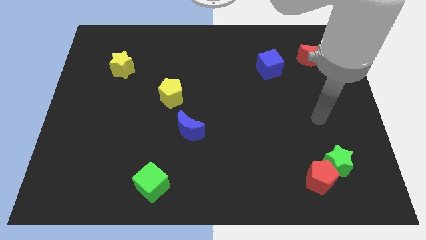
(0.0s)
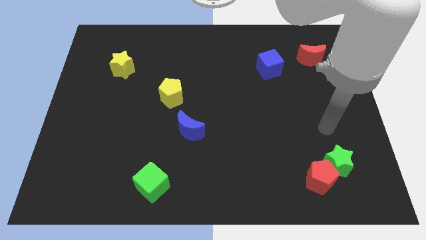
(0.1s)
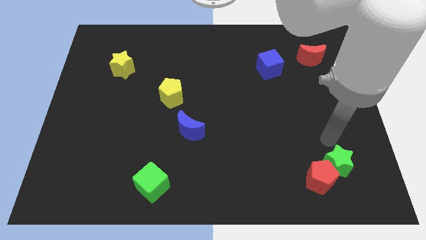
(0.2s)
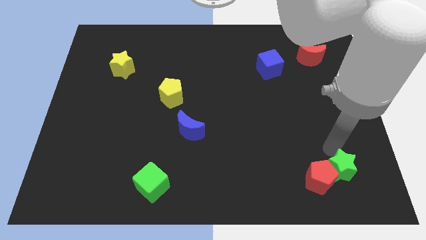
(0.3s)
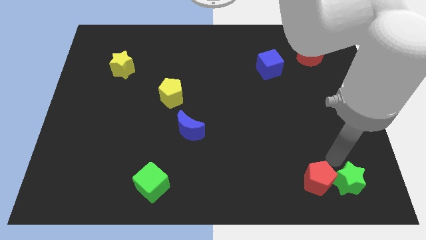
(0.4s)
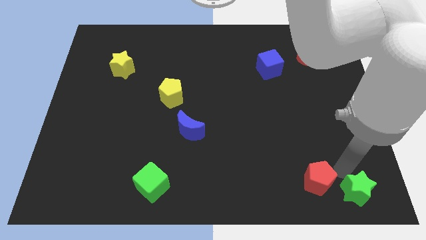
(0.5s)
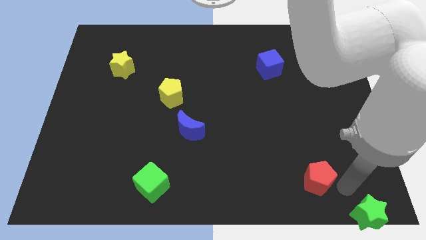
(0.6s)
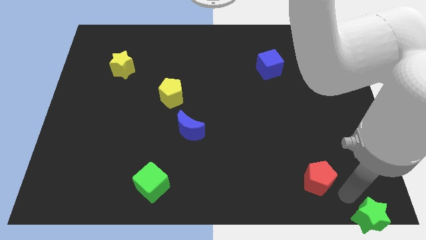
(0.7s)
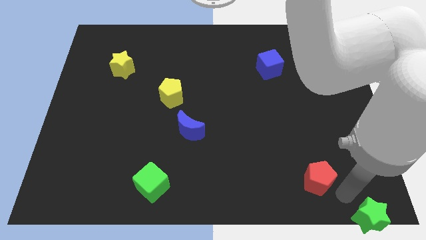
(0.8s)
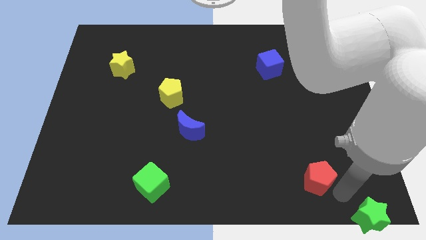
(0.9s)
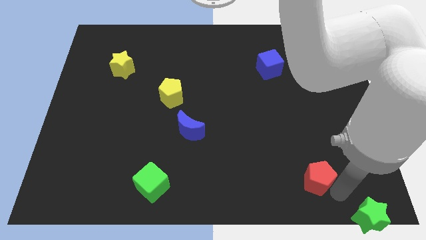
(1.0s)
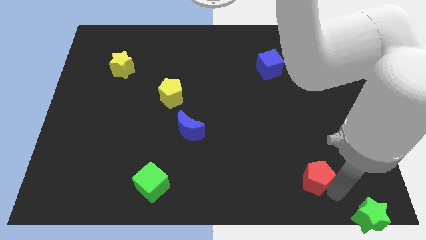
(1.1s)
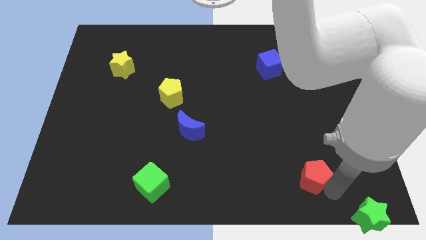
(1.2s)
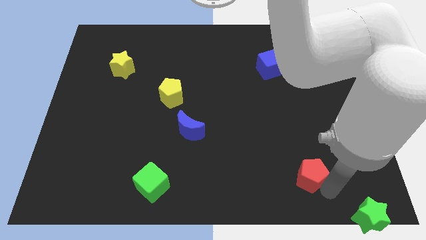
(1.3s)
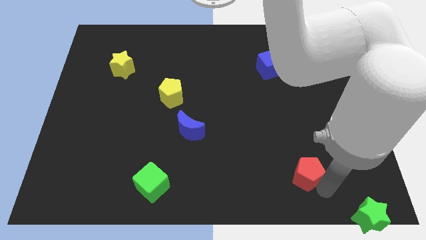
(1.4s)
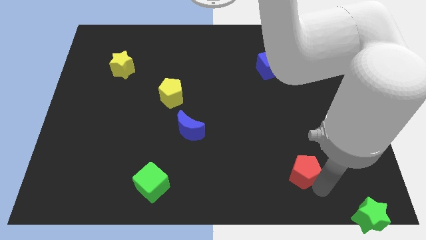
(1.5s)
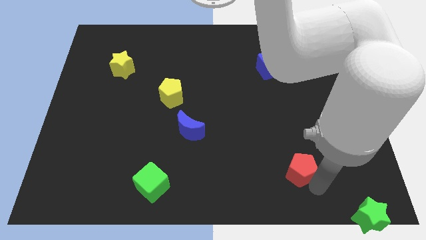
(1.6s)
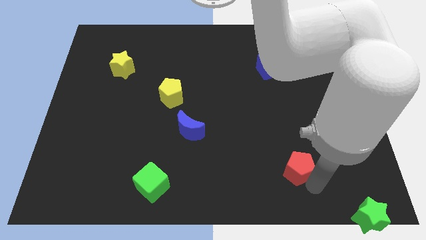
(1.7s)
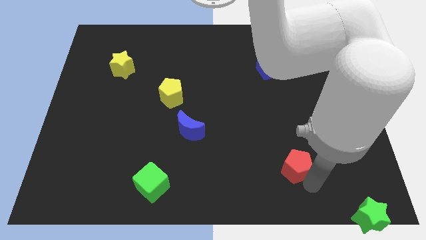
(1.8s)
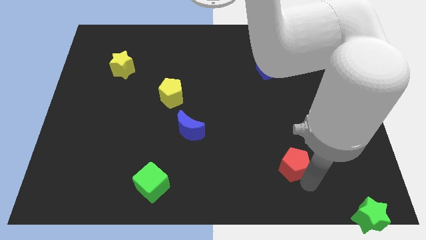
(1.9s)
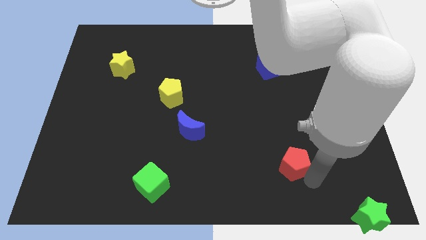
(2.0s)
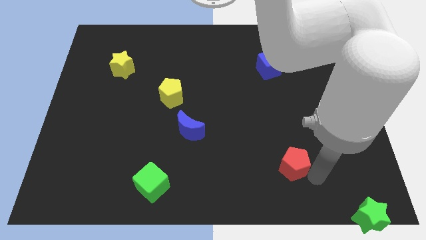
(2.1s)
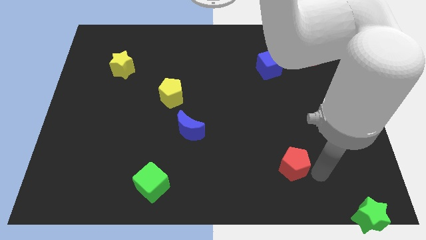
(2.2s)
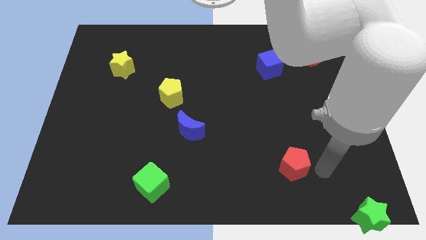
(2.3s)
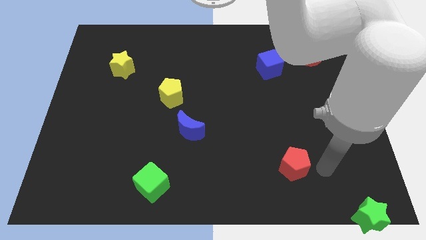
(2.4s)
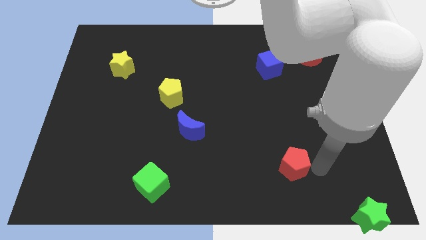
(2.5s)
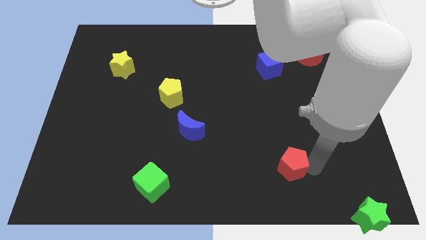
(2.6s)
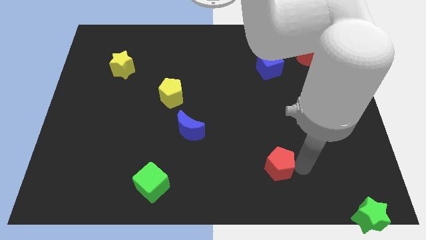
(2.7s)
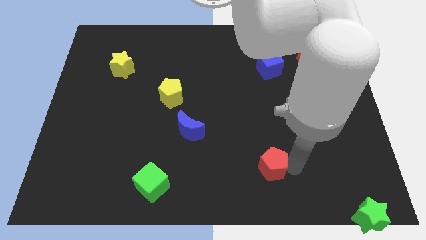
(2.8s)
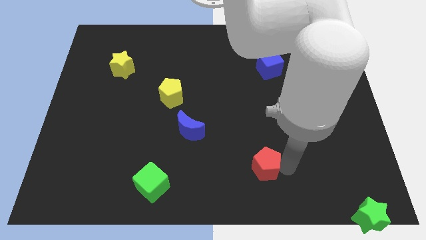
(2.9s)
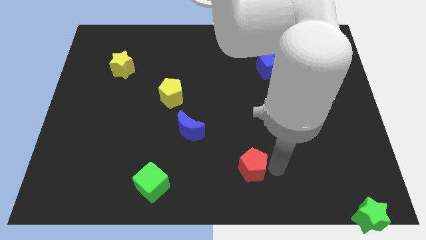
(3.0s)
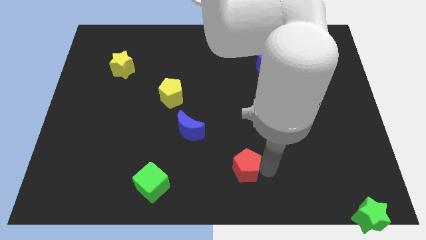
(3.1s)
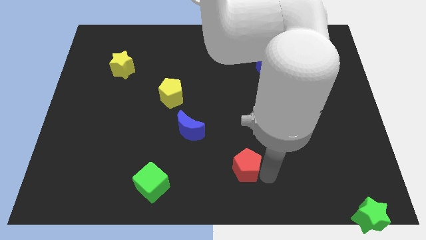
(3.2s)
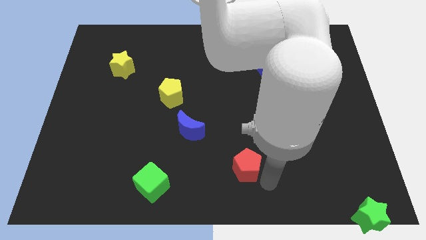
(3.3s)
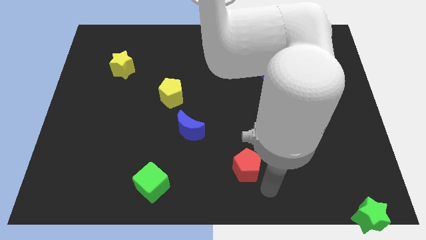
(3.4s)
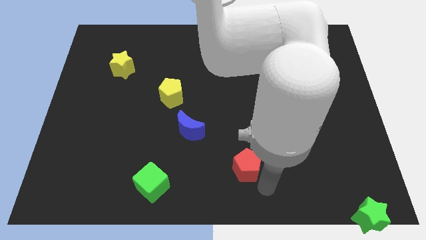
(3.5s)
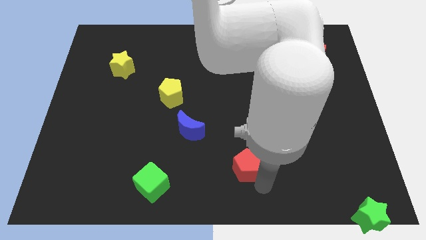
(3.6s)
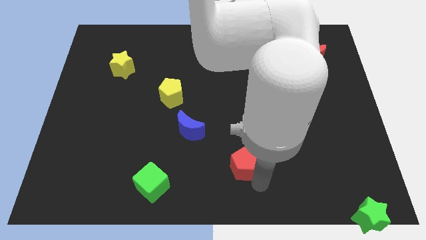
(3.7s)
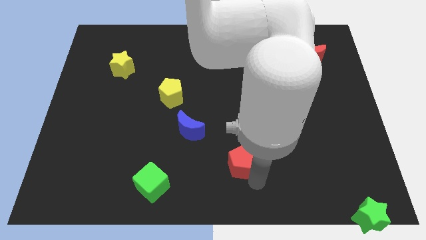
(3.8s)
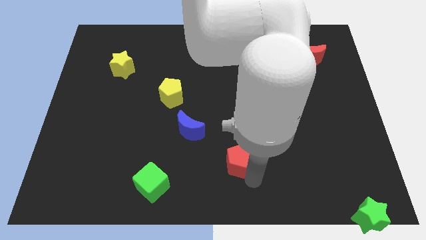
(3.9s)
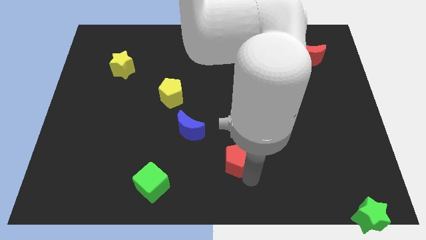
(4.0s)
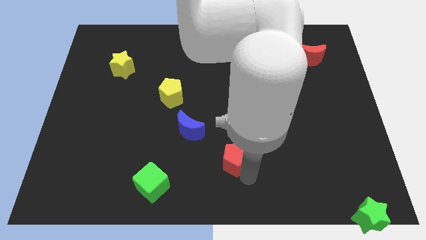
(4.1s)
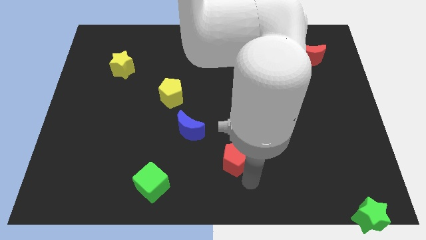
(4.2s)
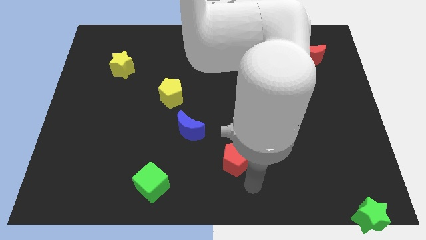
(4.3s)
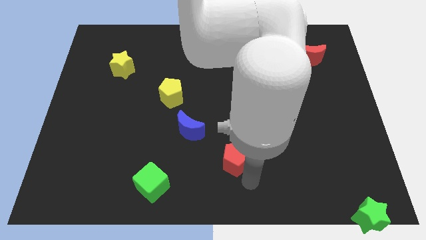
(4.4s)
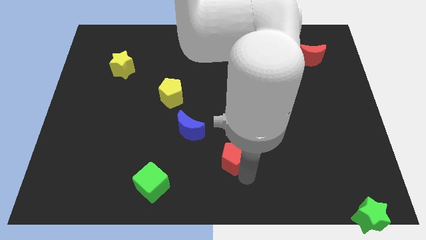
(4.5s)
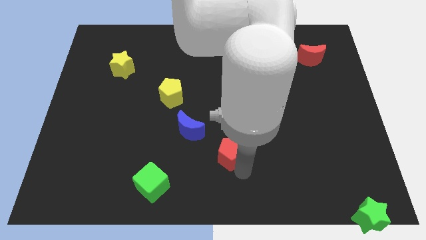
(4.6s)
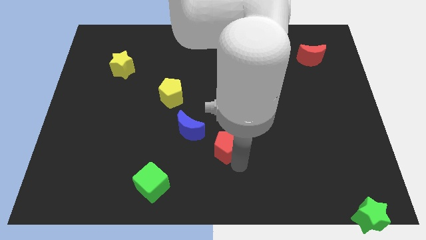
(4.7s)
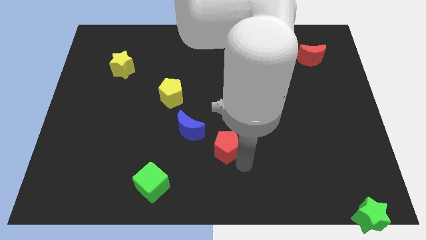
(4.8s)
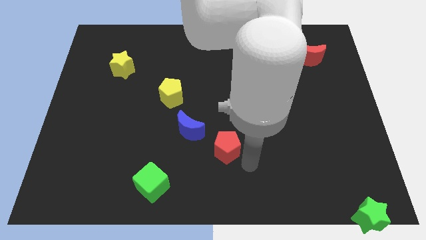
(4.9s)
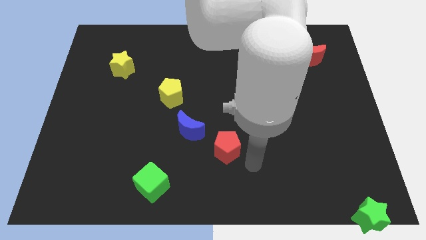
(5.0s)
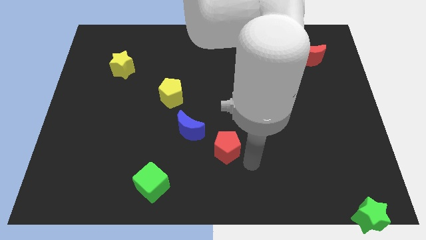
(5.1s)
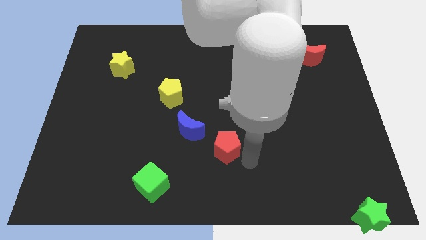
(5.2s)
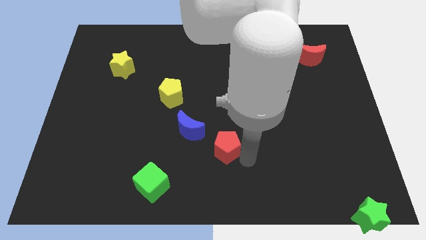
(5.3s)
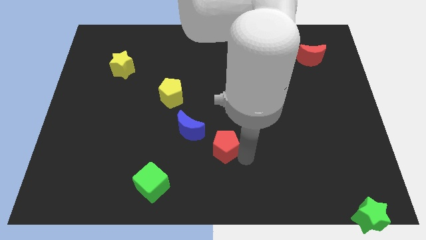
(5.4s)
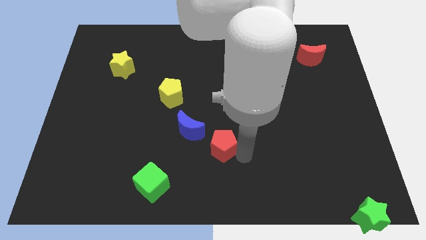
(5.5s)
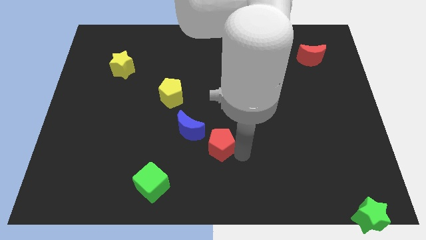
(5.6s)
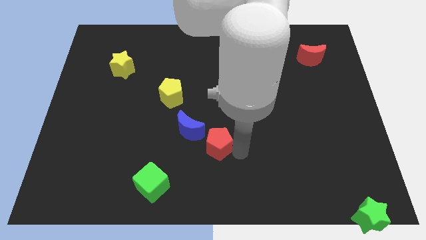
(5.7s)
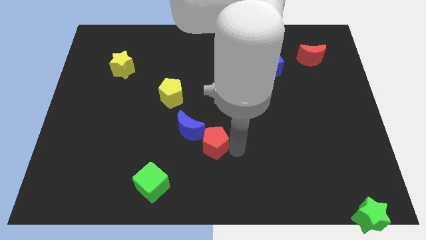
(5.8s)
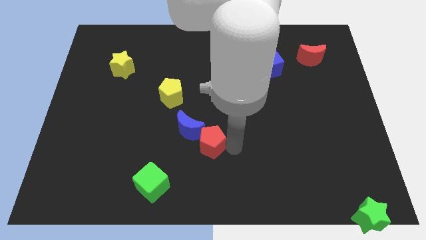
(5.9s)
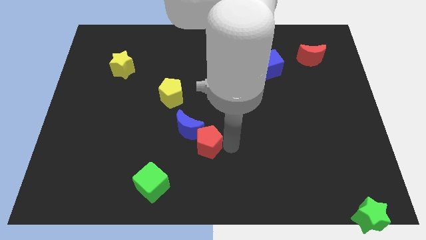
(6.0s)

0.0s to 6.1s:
move the red pentagon to the blue moon

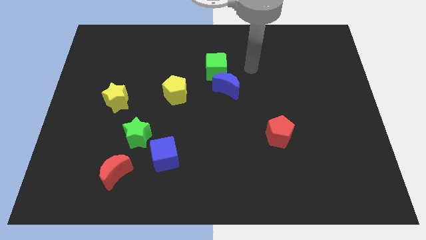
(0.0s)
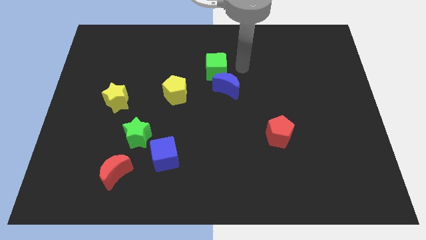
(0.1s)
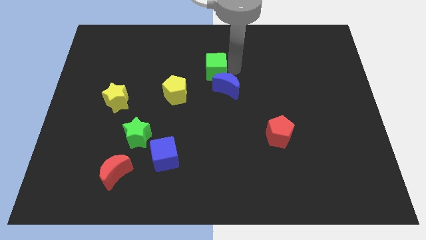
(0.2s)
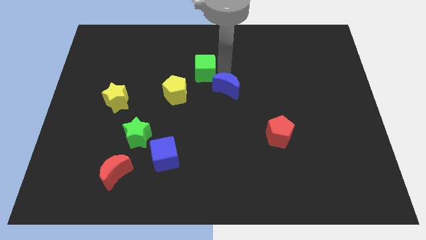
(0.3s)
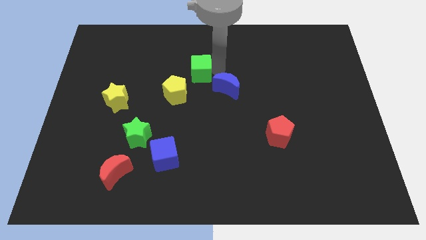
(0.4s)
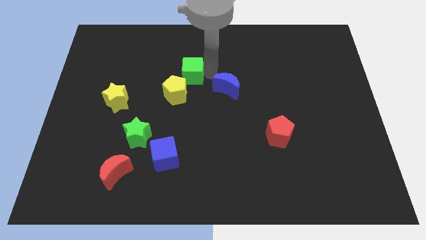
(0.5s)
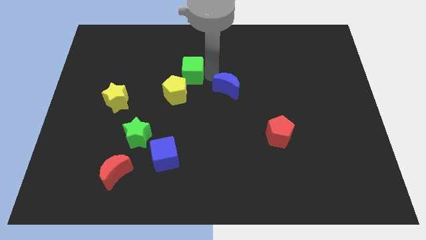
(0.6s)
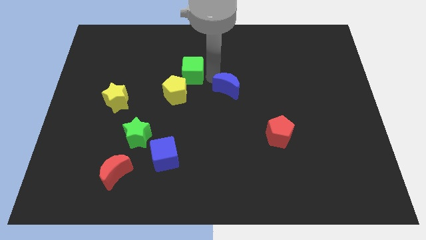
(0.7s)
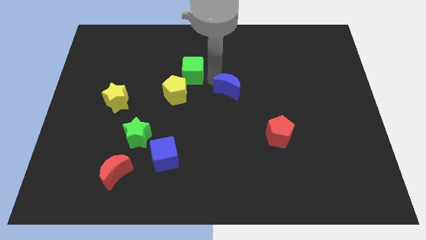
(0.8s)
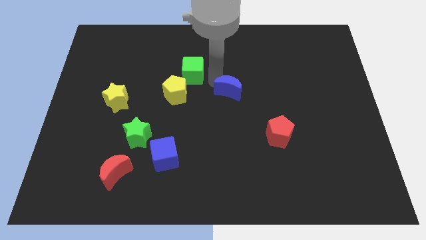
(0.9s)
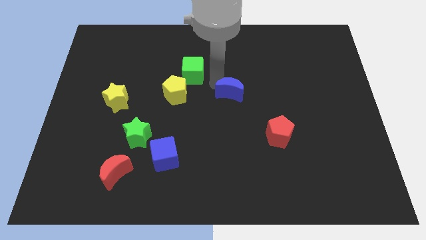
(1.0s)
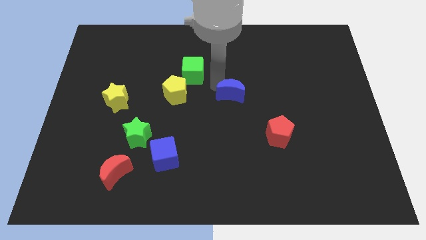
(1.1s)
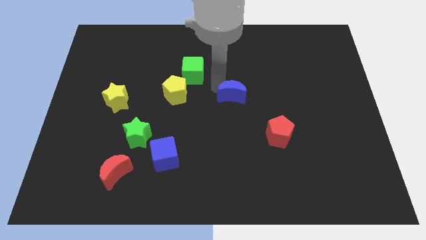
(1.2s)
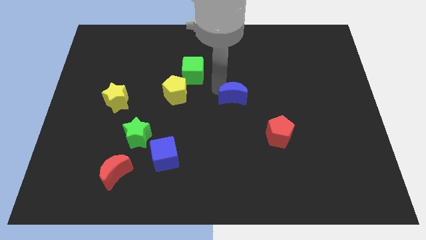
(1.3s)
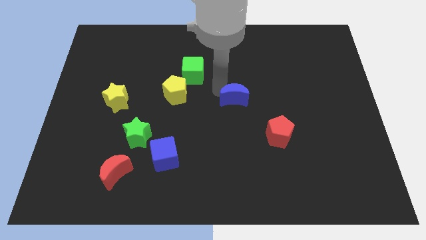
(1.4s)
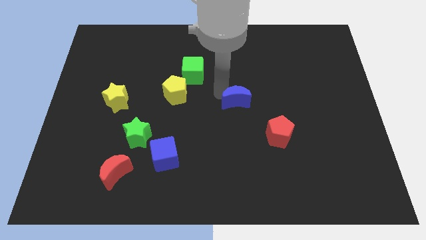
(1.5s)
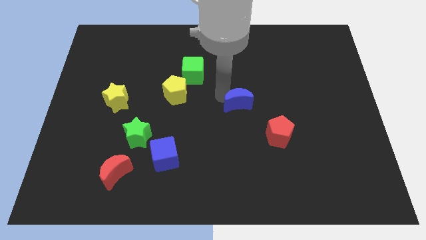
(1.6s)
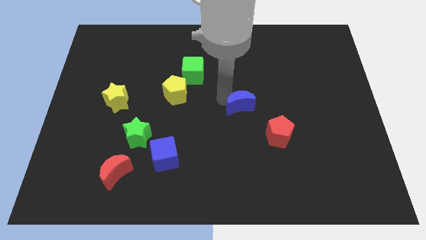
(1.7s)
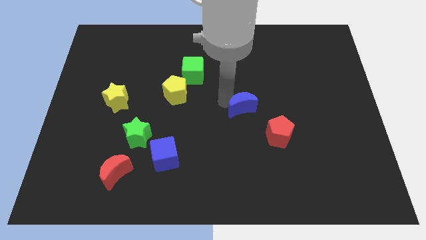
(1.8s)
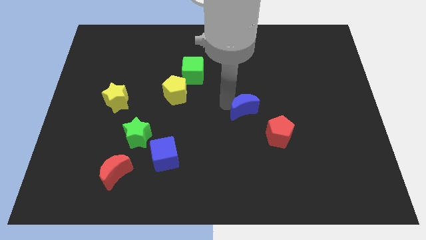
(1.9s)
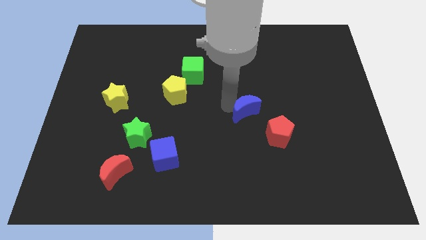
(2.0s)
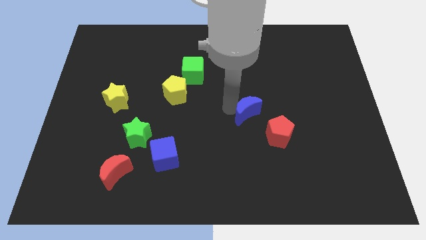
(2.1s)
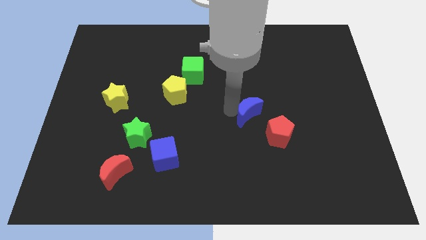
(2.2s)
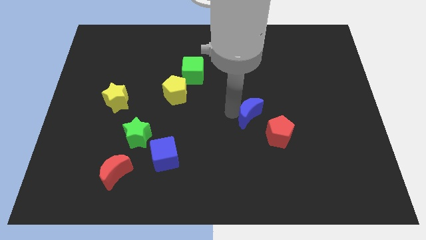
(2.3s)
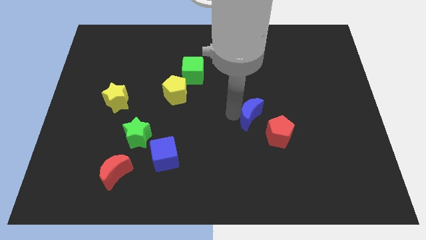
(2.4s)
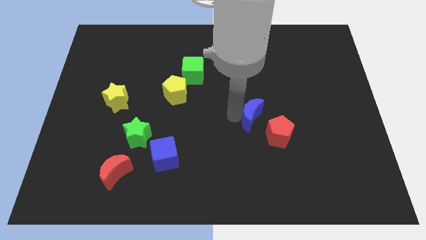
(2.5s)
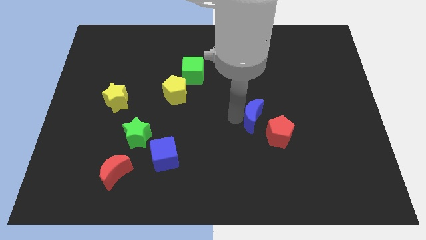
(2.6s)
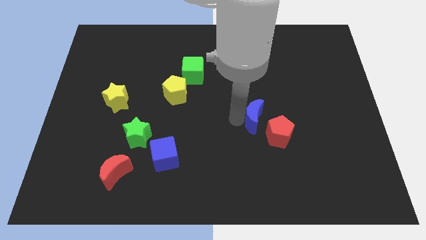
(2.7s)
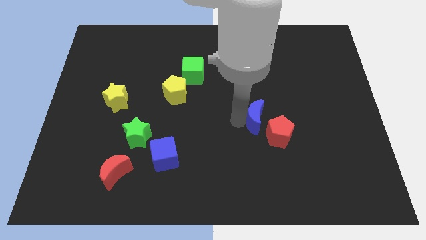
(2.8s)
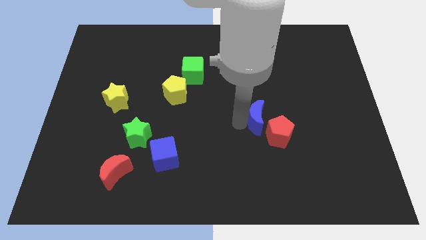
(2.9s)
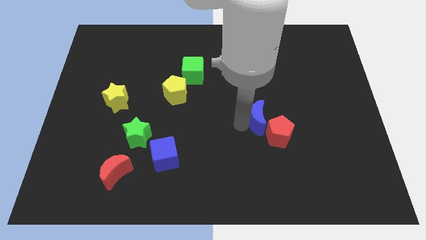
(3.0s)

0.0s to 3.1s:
slide the blue moon close to the red pentagon
